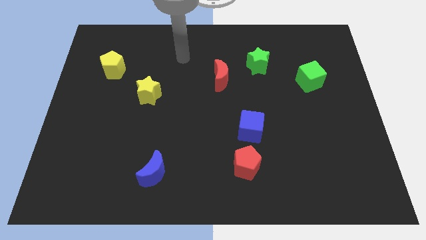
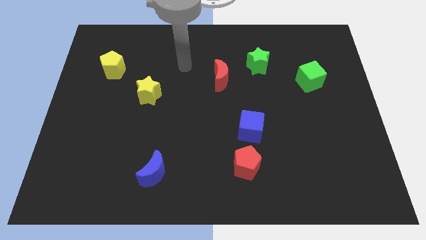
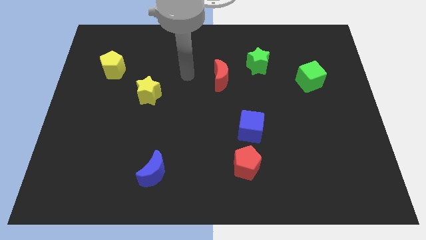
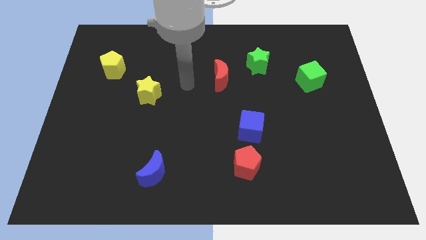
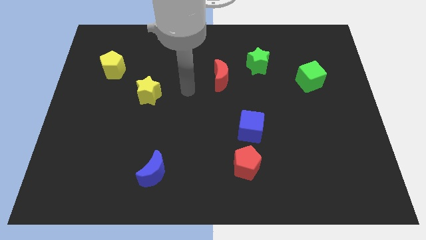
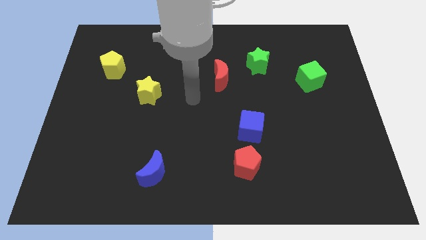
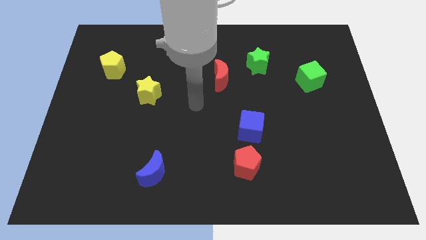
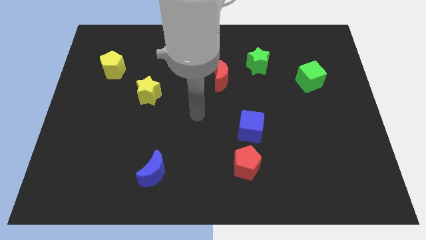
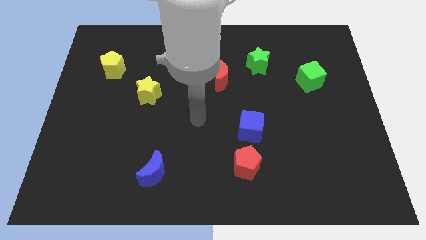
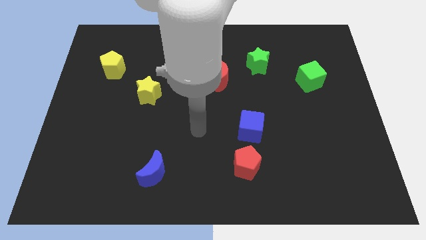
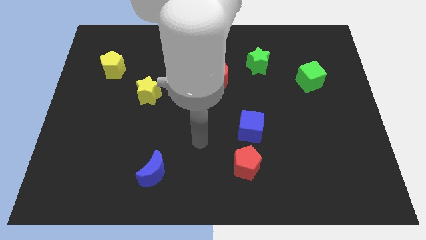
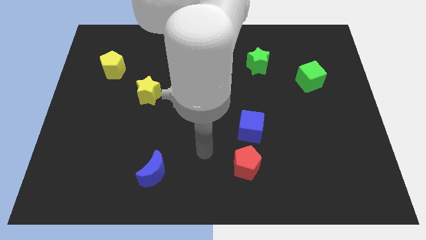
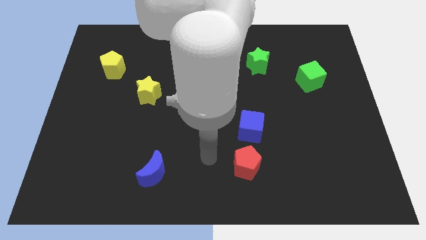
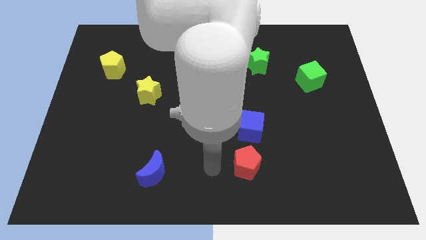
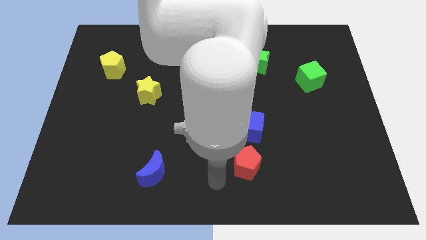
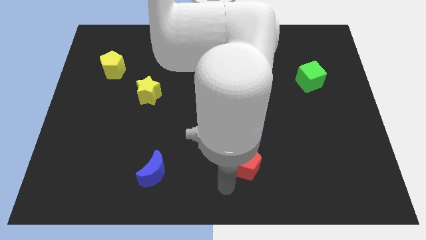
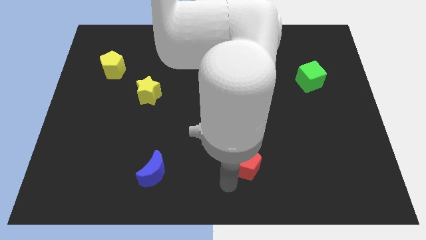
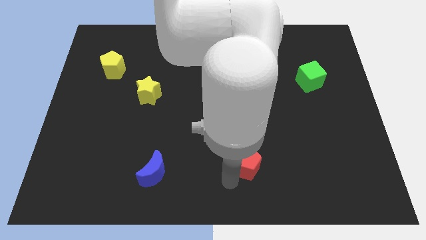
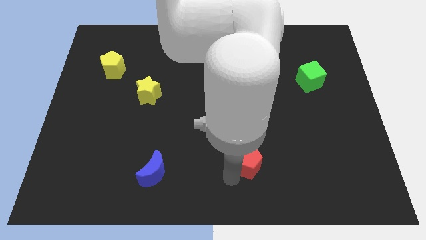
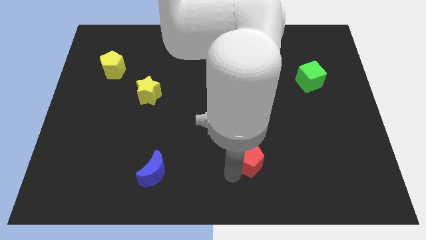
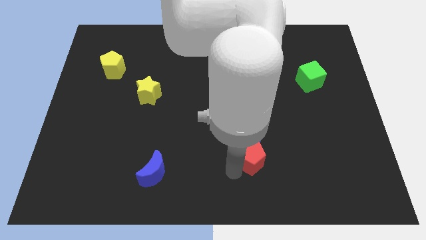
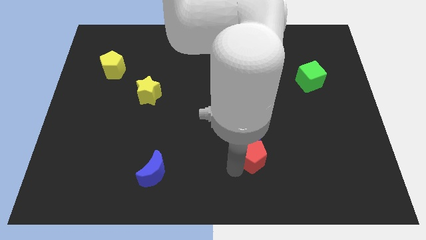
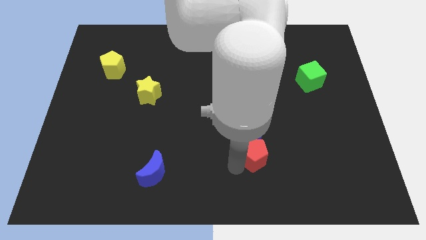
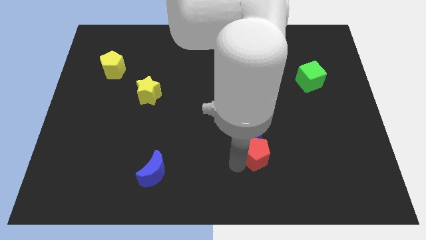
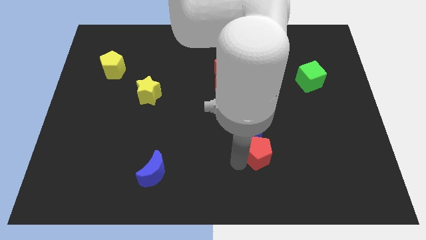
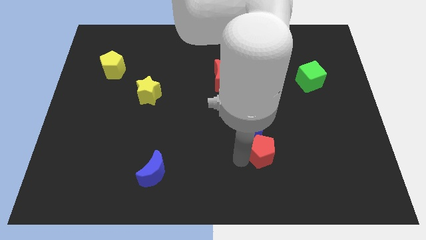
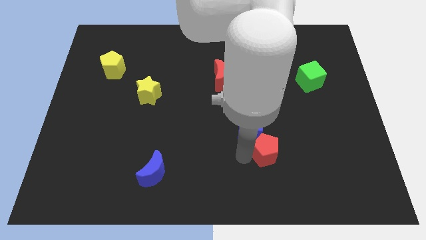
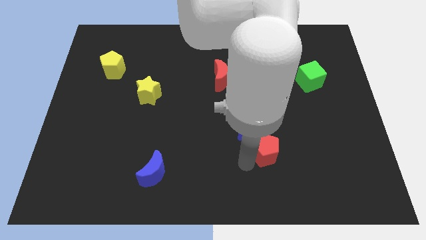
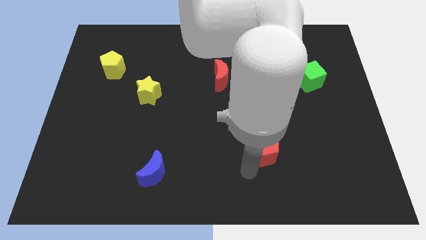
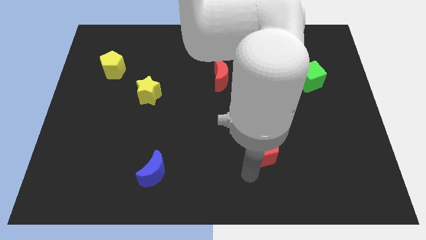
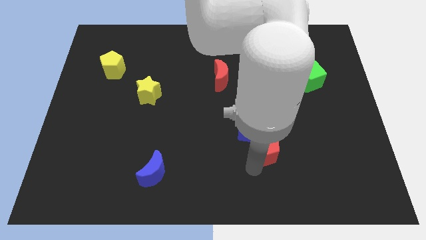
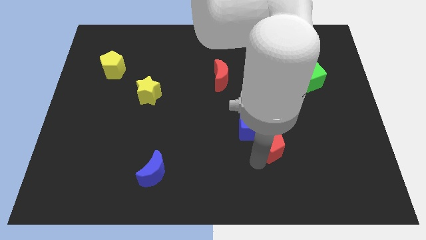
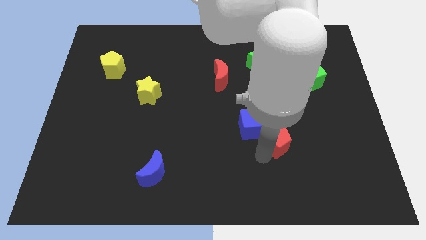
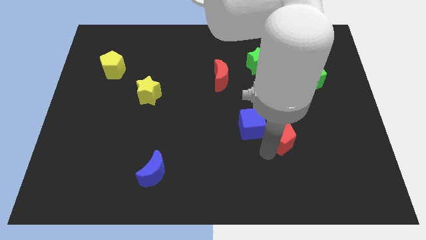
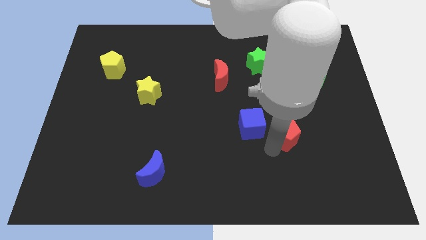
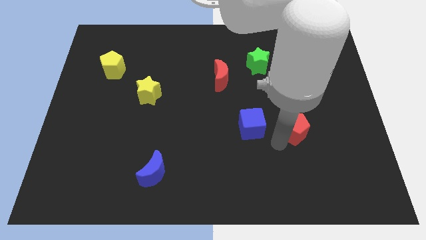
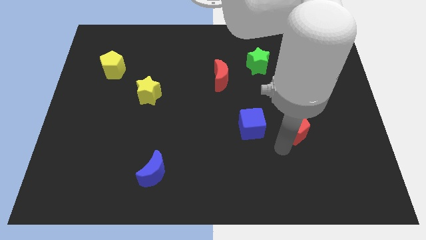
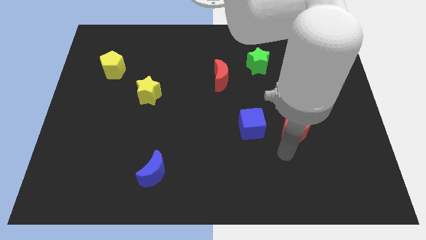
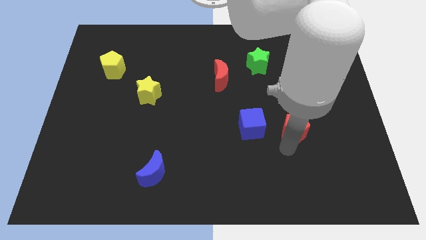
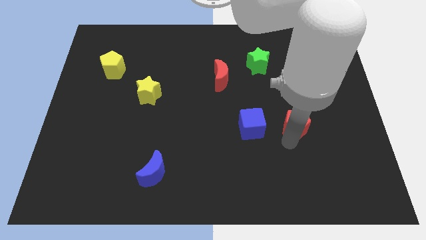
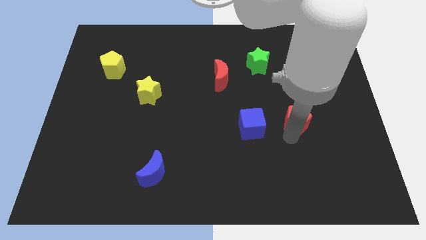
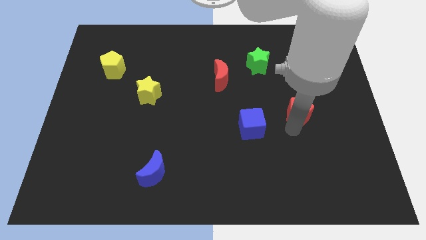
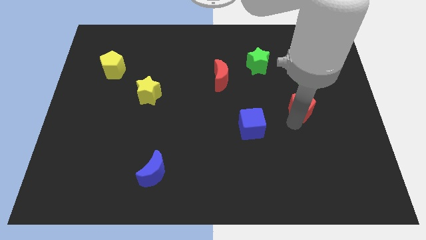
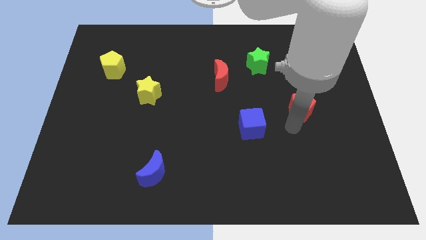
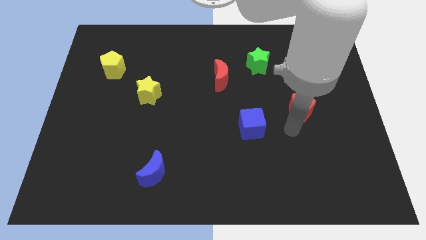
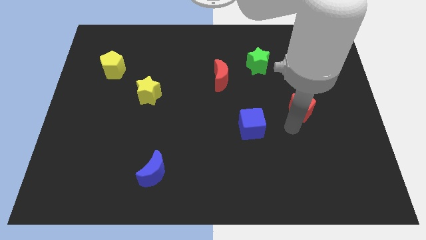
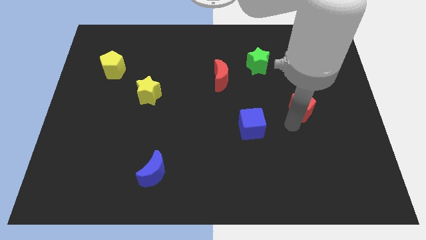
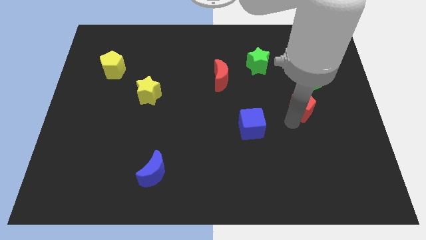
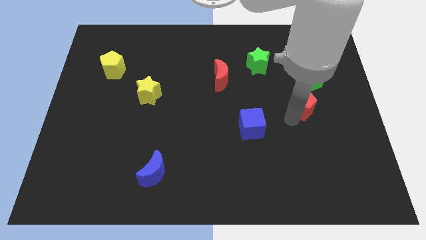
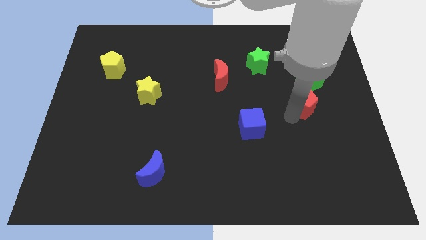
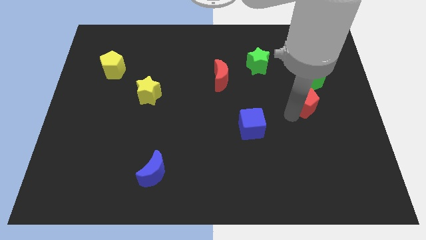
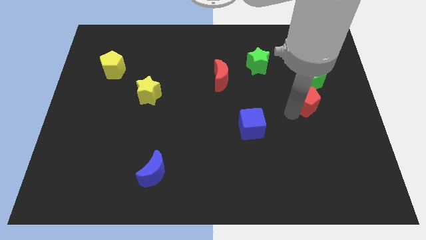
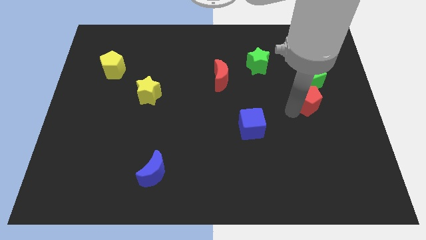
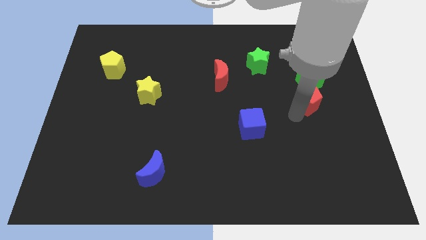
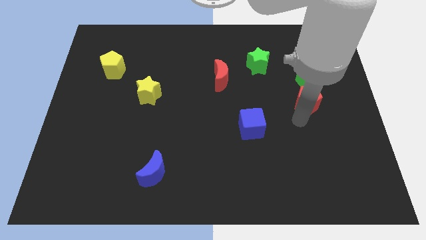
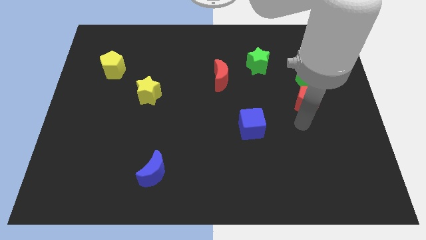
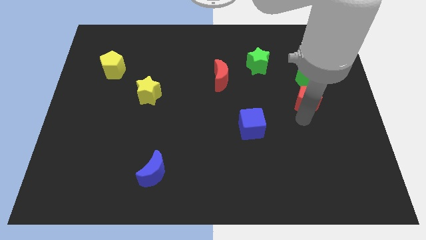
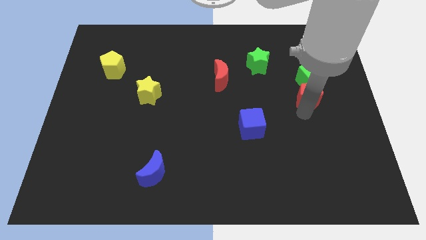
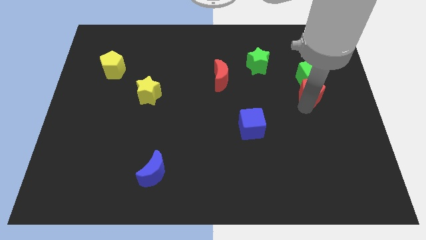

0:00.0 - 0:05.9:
put the red pentagon next to the green cube

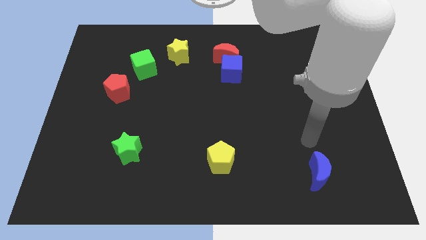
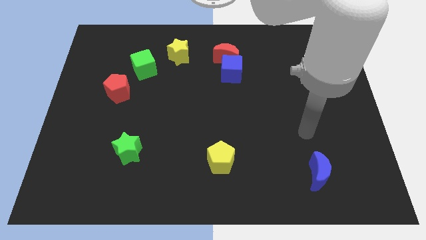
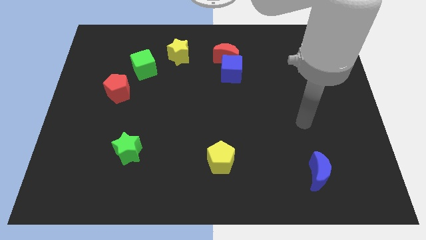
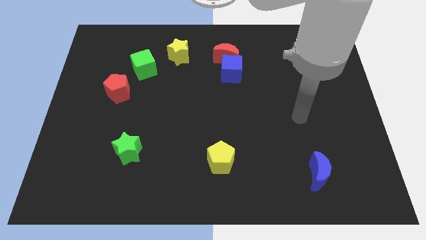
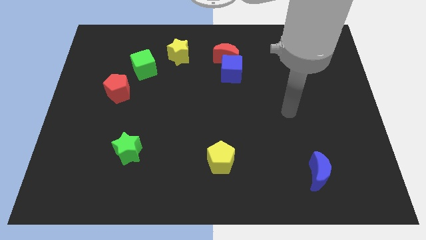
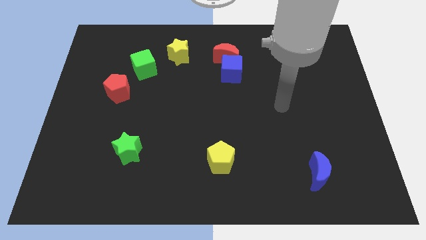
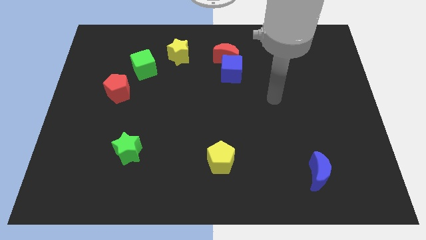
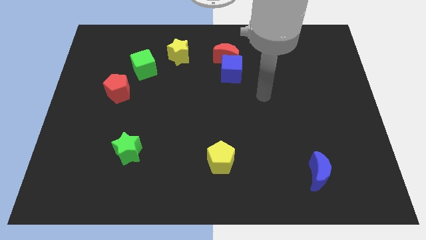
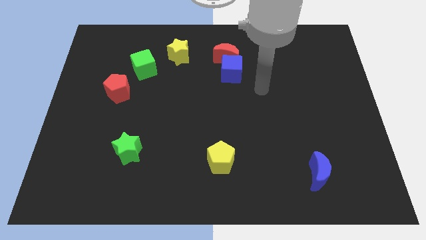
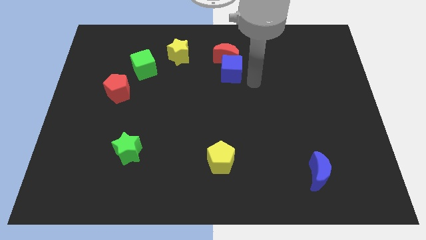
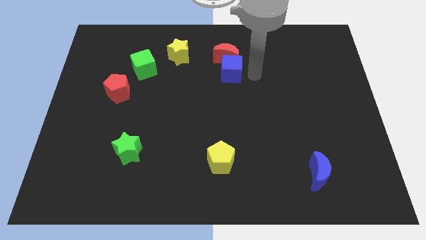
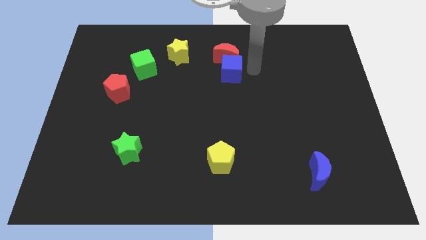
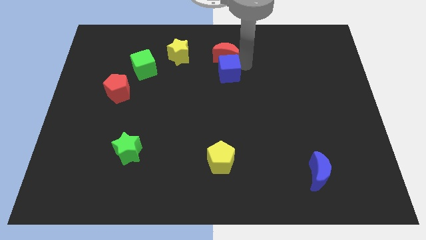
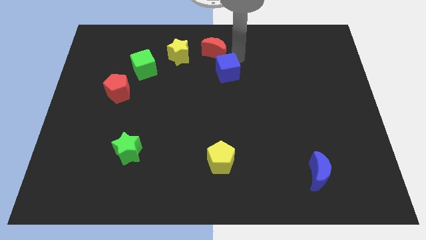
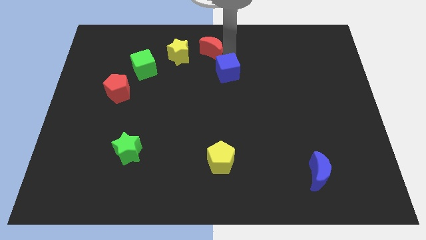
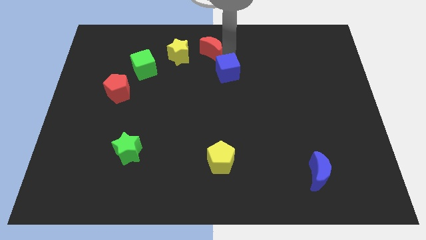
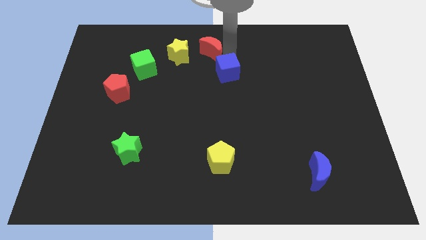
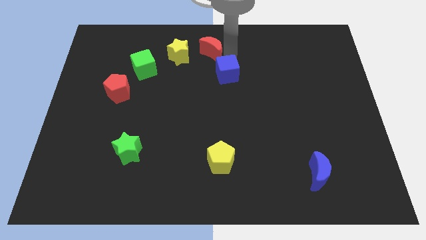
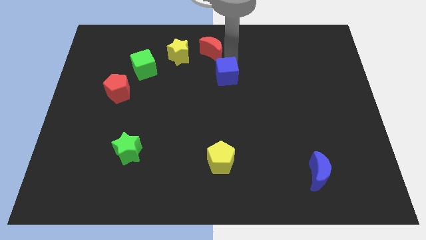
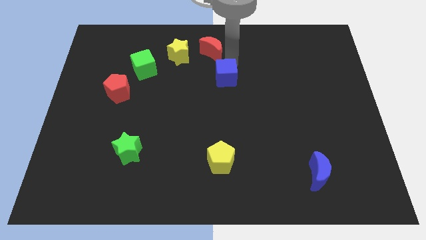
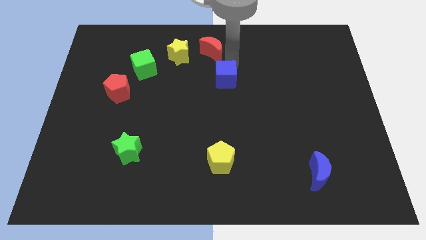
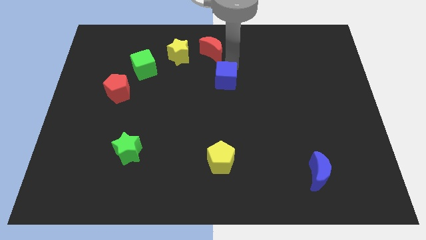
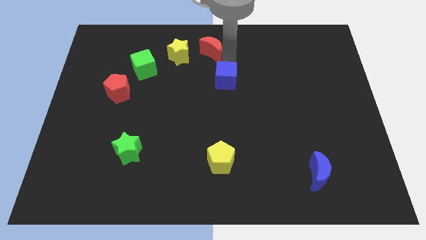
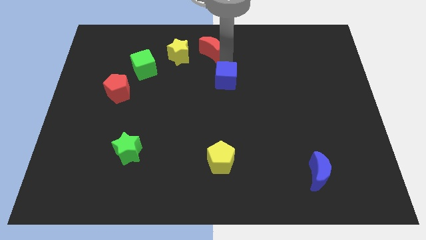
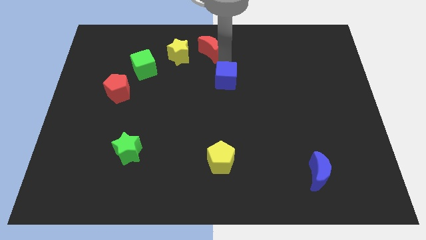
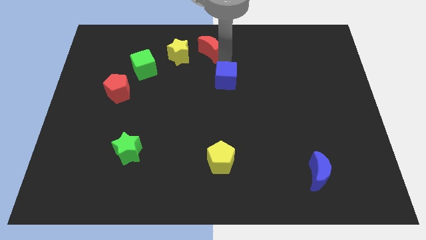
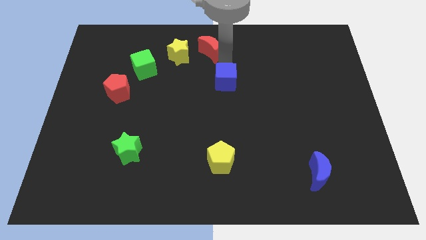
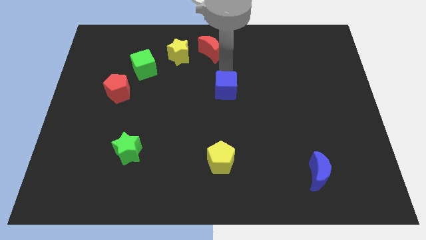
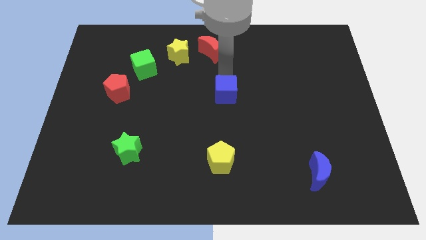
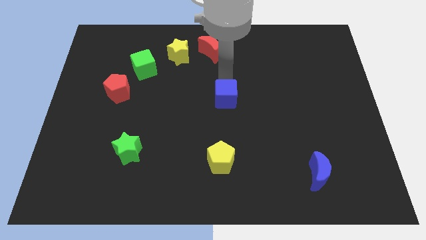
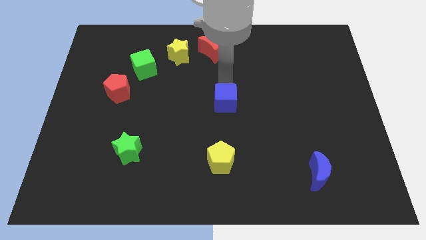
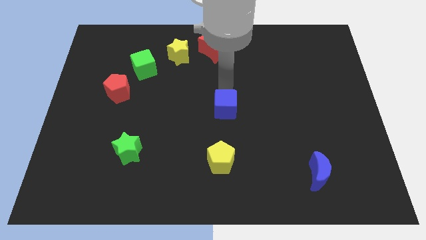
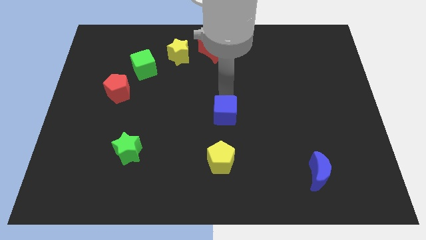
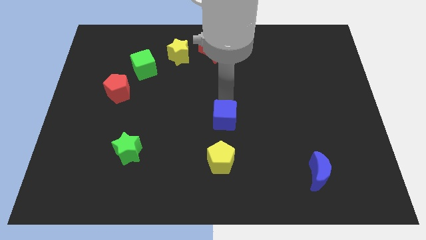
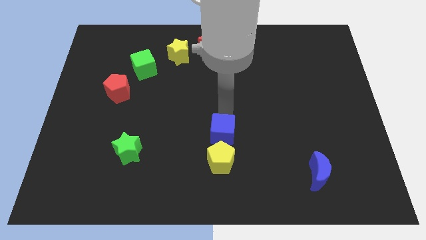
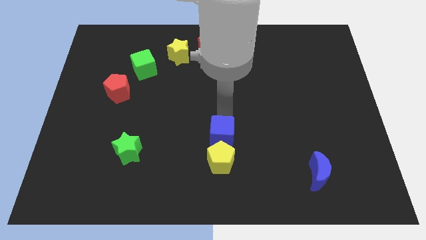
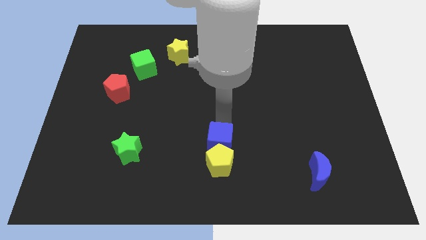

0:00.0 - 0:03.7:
put the blue cube next to the yellow pentagon
